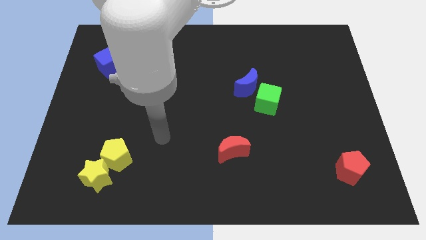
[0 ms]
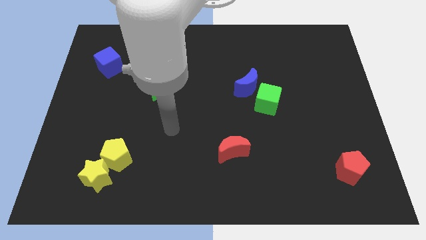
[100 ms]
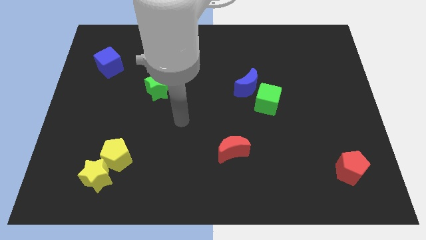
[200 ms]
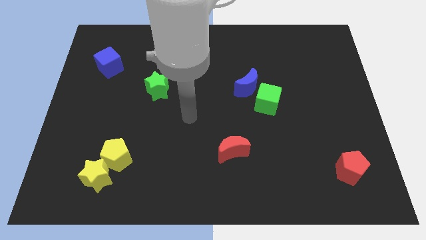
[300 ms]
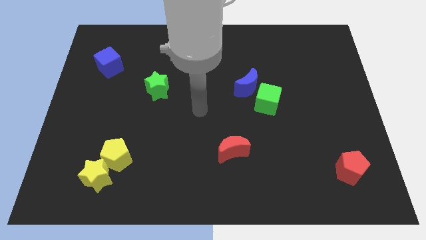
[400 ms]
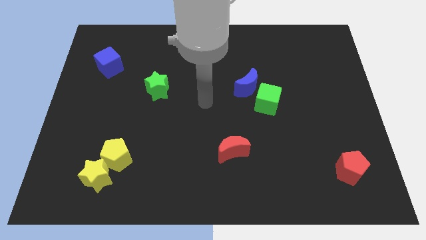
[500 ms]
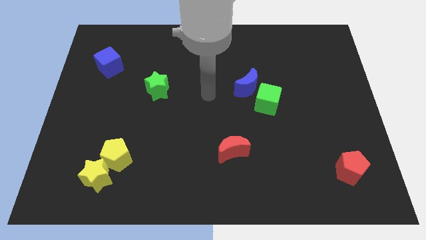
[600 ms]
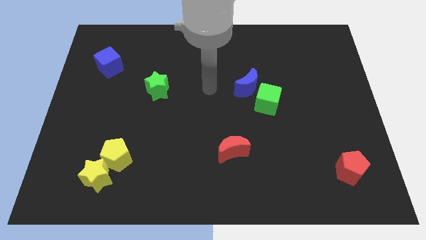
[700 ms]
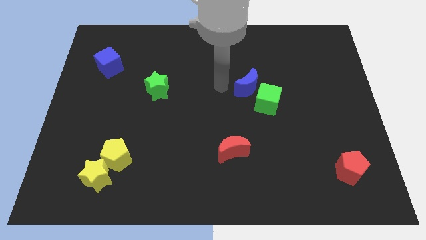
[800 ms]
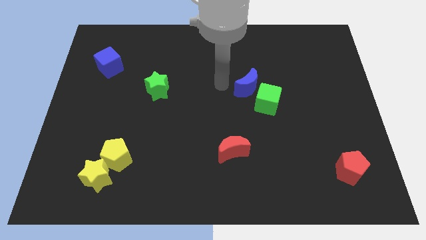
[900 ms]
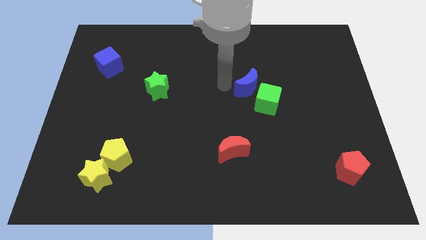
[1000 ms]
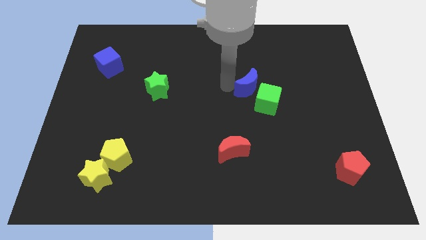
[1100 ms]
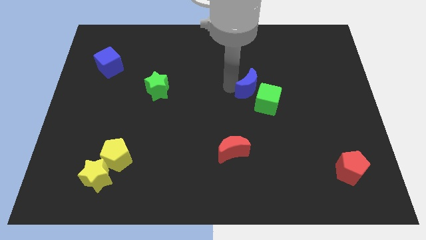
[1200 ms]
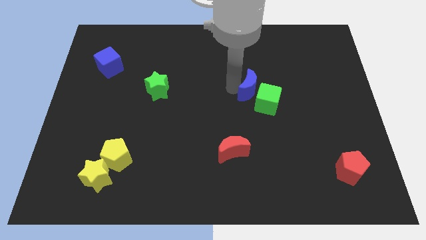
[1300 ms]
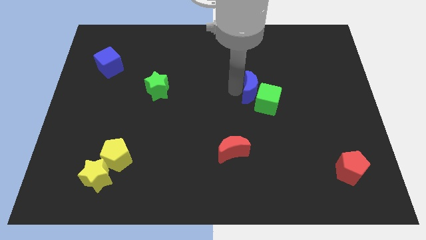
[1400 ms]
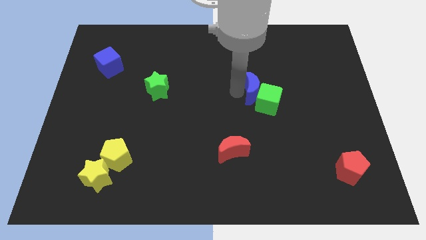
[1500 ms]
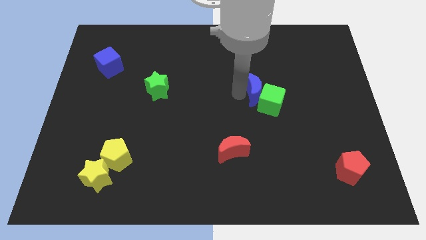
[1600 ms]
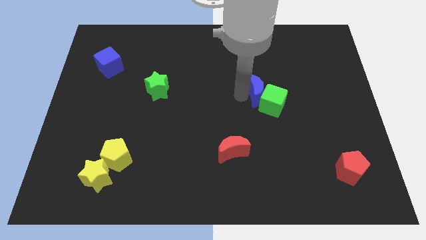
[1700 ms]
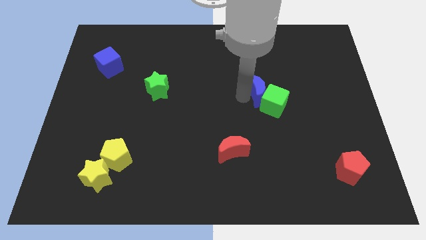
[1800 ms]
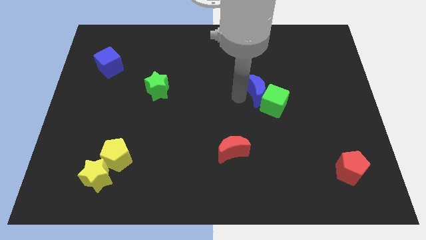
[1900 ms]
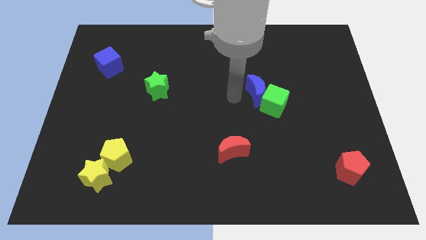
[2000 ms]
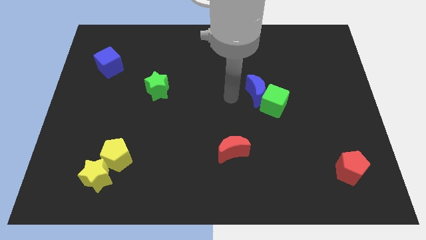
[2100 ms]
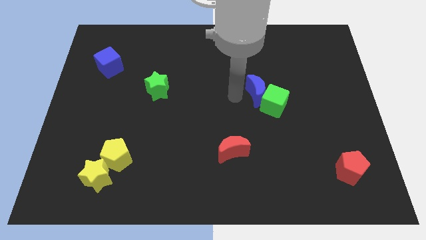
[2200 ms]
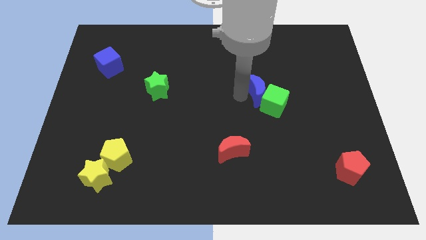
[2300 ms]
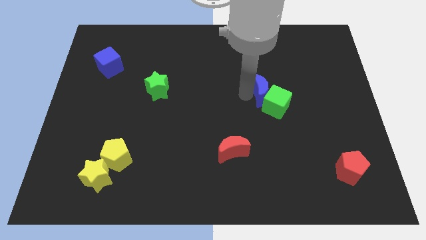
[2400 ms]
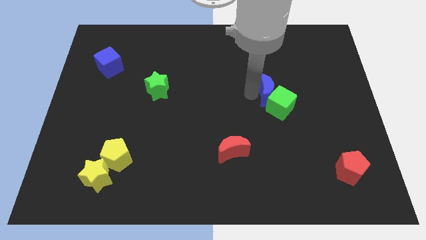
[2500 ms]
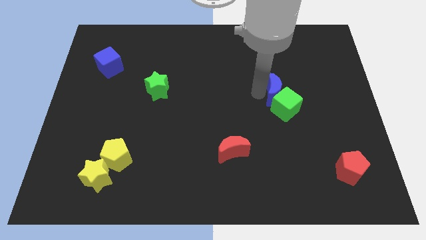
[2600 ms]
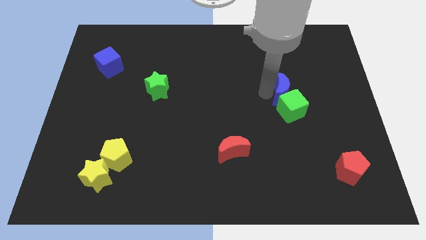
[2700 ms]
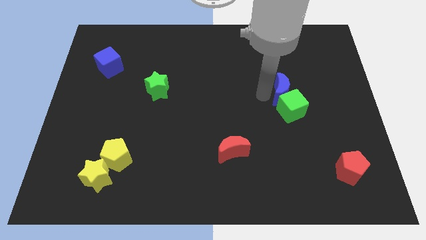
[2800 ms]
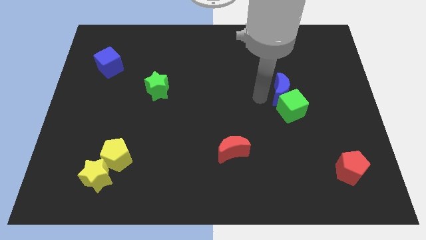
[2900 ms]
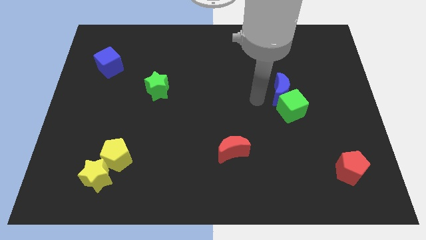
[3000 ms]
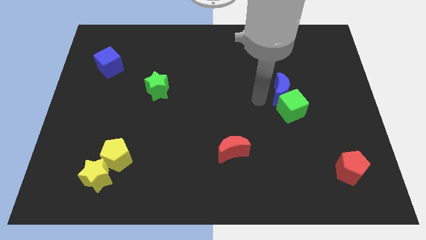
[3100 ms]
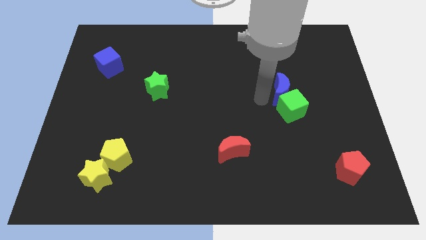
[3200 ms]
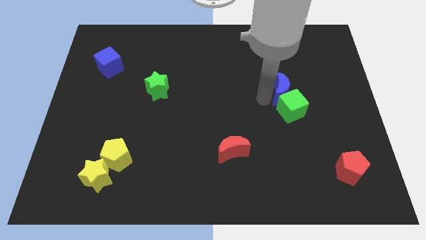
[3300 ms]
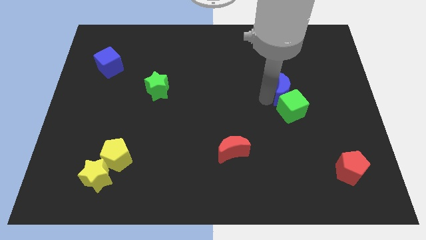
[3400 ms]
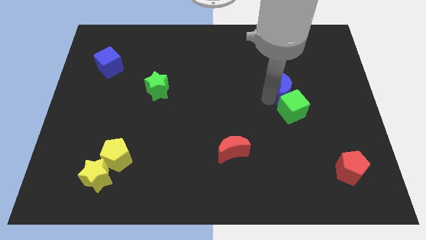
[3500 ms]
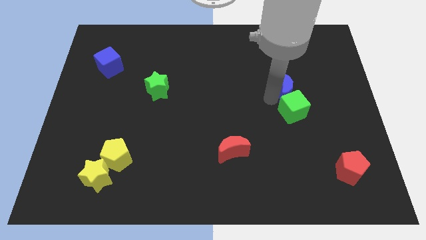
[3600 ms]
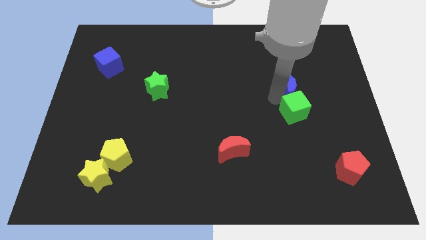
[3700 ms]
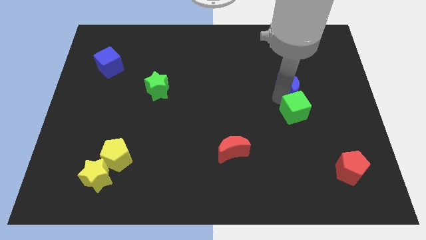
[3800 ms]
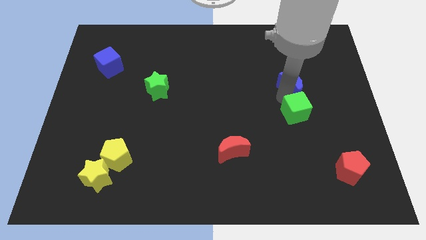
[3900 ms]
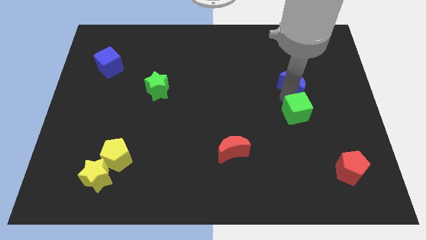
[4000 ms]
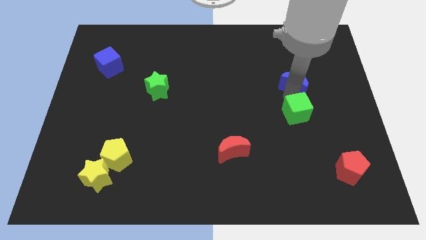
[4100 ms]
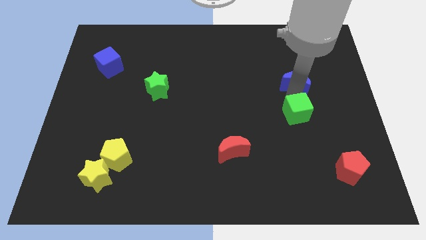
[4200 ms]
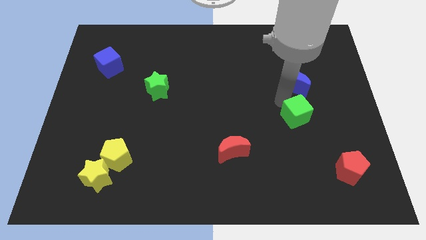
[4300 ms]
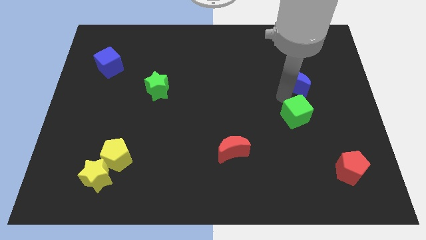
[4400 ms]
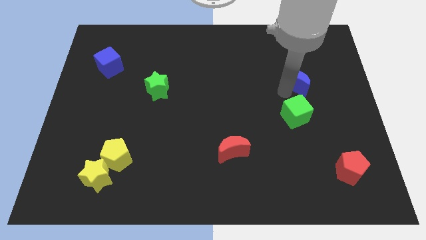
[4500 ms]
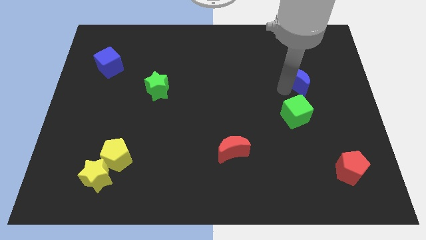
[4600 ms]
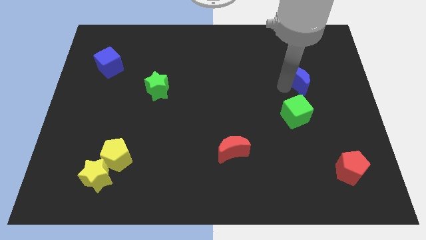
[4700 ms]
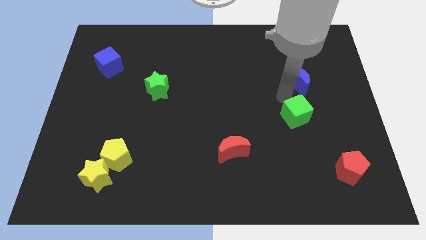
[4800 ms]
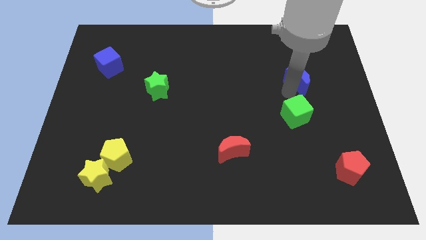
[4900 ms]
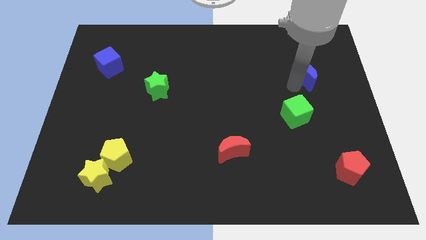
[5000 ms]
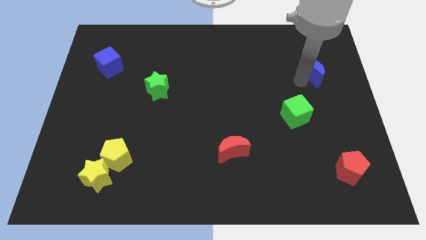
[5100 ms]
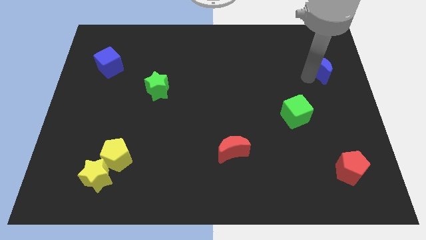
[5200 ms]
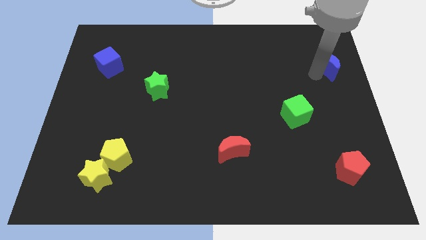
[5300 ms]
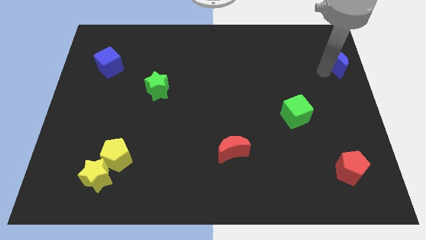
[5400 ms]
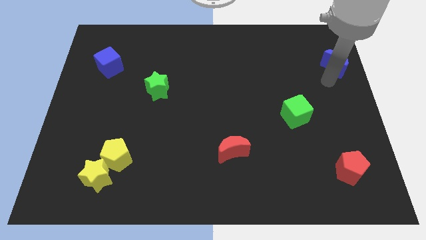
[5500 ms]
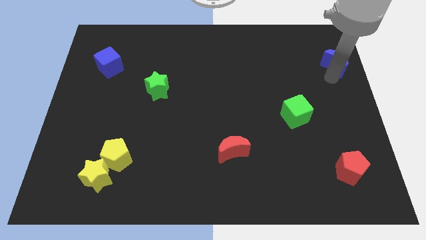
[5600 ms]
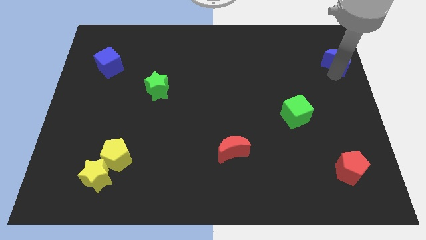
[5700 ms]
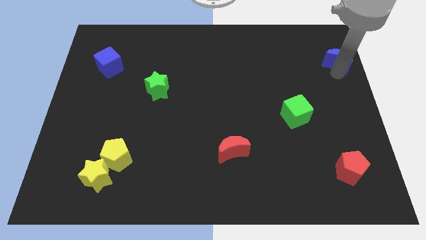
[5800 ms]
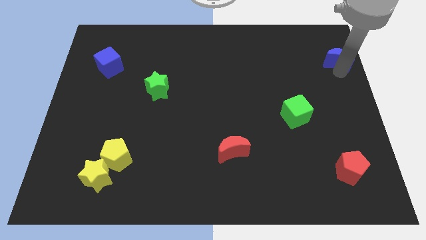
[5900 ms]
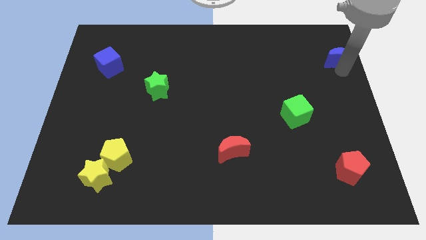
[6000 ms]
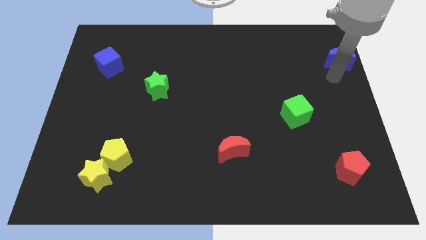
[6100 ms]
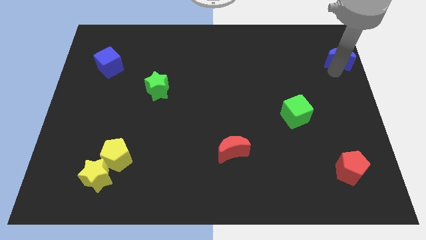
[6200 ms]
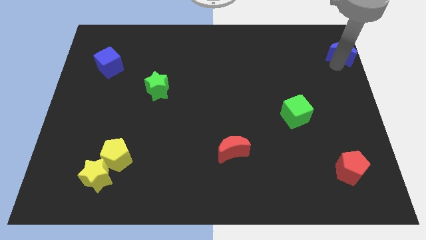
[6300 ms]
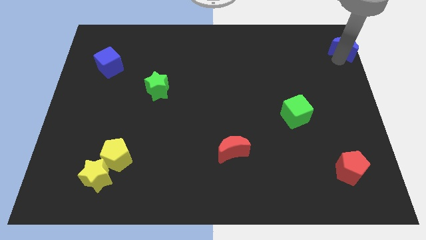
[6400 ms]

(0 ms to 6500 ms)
put the blue moon to the top right
